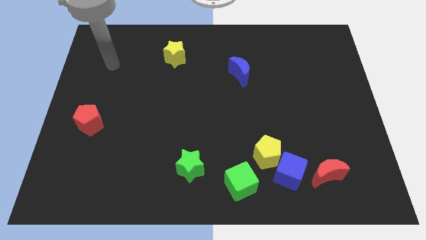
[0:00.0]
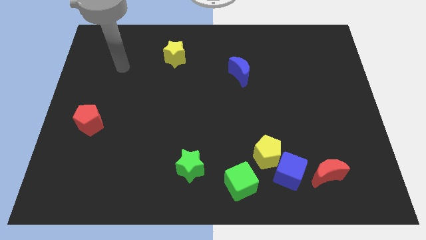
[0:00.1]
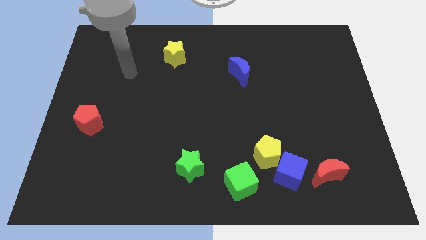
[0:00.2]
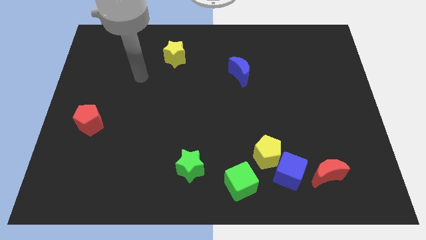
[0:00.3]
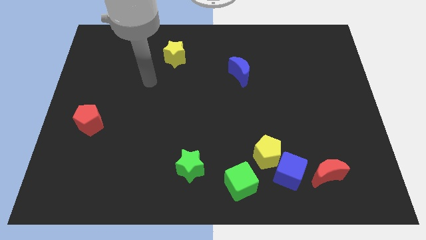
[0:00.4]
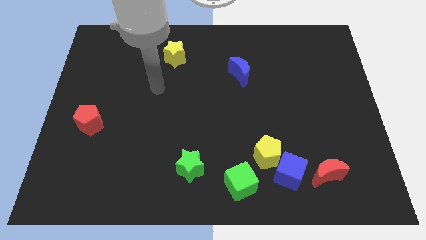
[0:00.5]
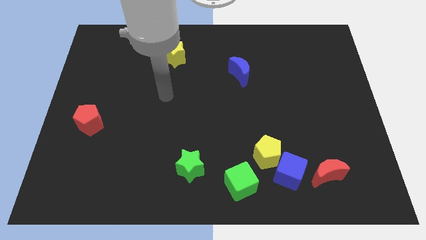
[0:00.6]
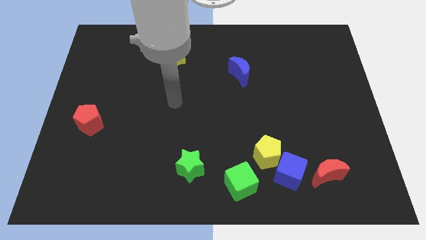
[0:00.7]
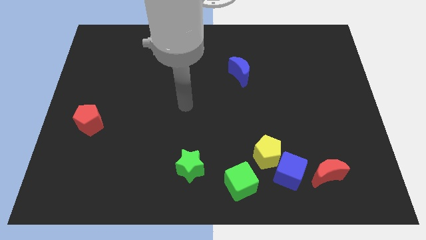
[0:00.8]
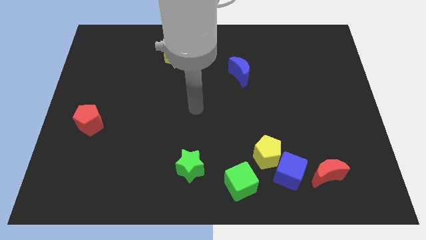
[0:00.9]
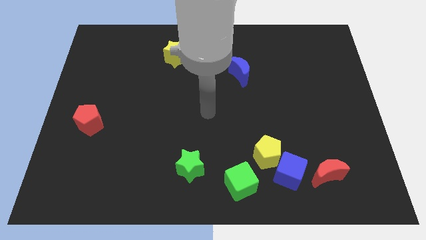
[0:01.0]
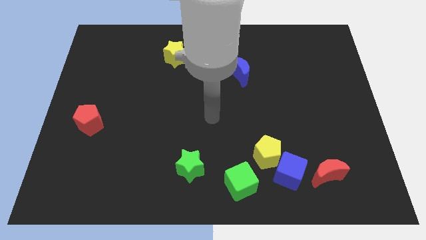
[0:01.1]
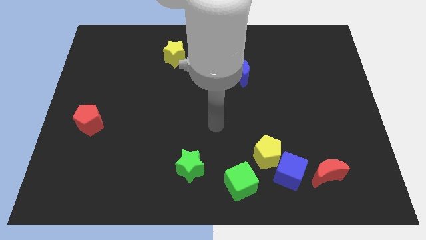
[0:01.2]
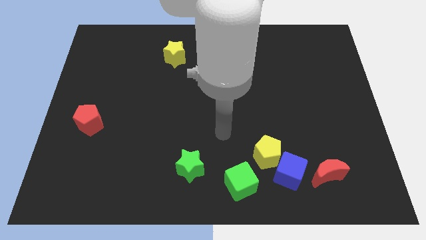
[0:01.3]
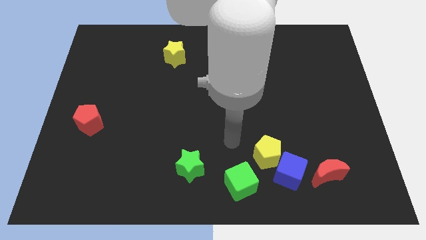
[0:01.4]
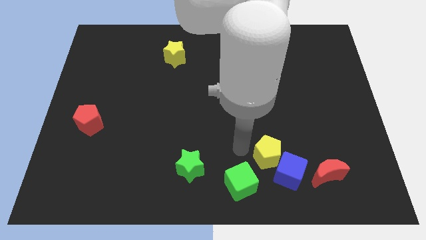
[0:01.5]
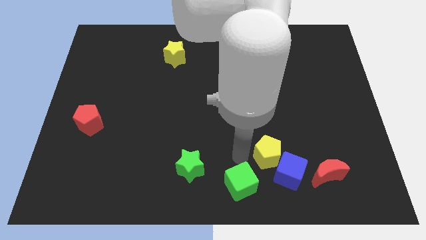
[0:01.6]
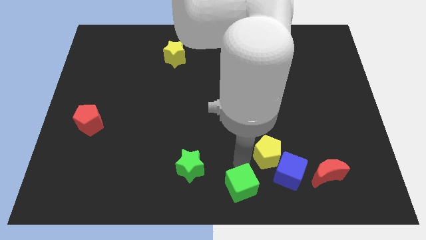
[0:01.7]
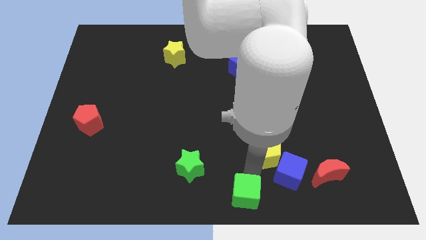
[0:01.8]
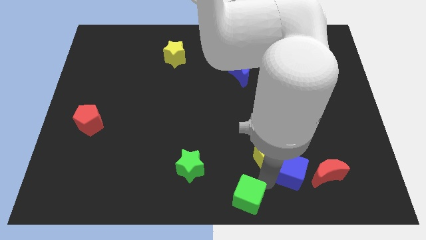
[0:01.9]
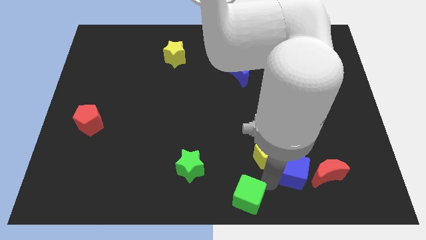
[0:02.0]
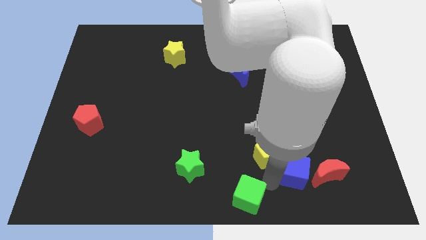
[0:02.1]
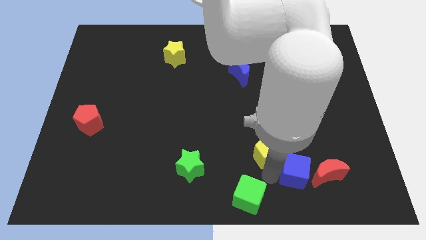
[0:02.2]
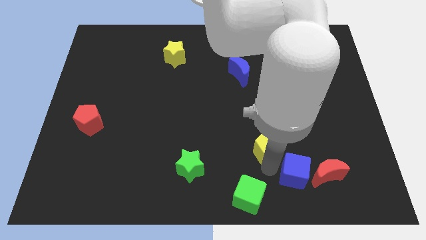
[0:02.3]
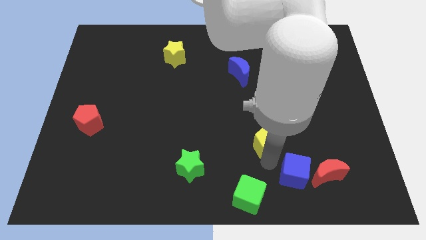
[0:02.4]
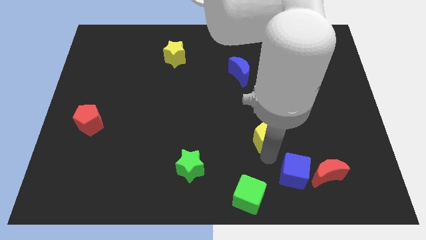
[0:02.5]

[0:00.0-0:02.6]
separate the yellow pentagon from the blue cube and green cube

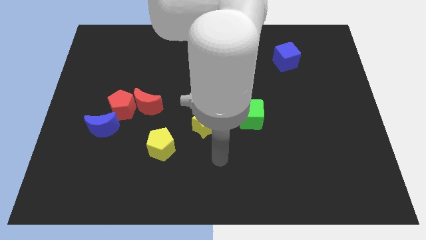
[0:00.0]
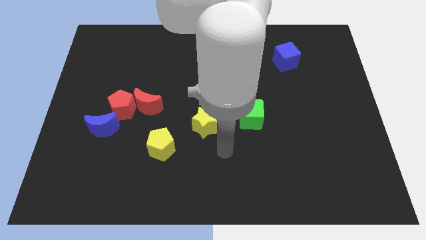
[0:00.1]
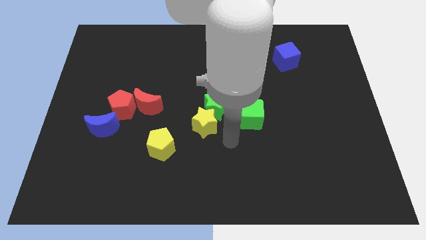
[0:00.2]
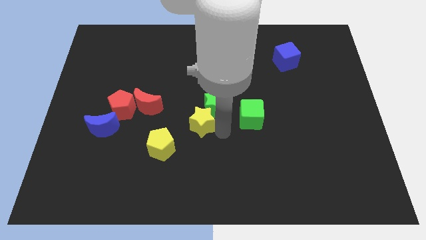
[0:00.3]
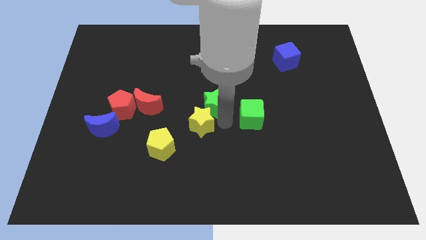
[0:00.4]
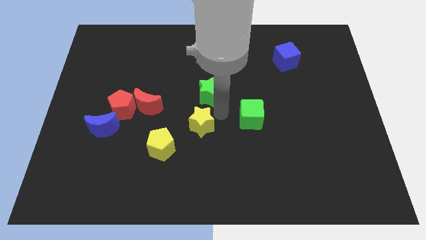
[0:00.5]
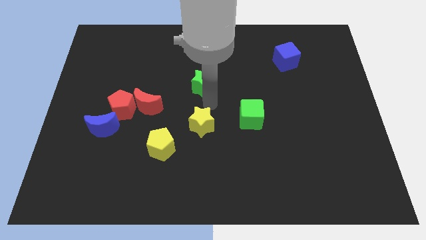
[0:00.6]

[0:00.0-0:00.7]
pull the yellow star apart from the green star

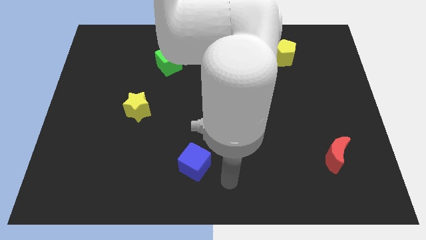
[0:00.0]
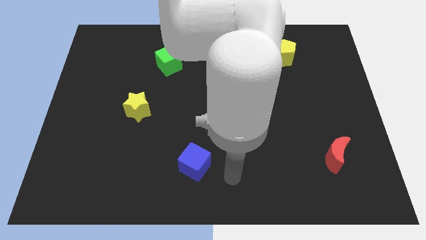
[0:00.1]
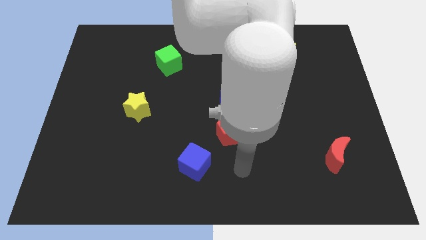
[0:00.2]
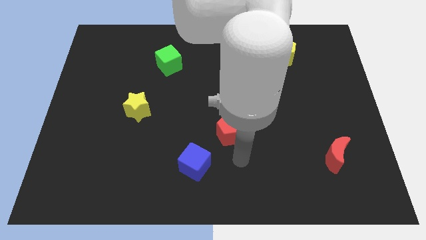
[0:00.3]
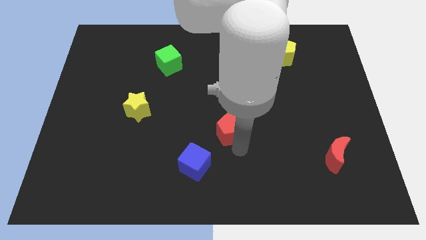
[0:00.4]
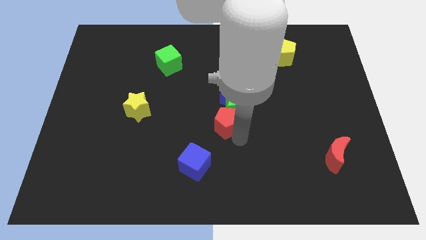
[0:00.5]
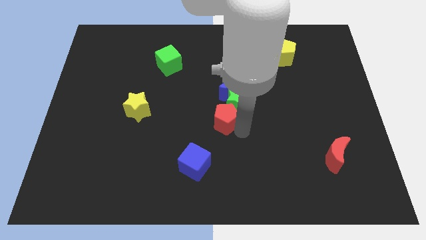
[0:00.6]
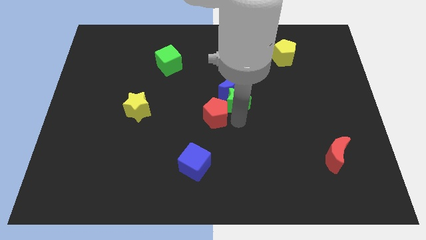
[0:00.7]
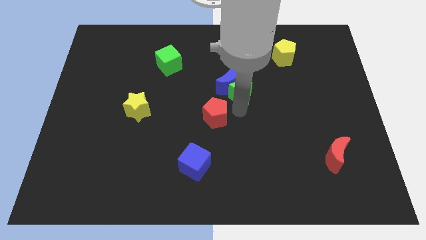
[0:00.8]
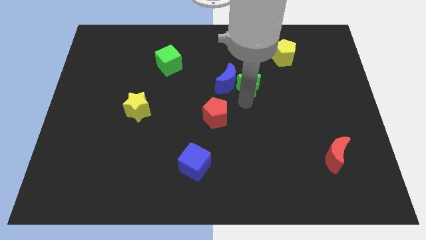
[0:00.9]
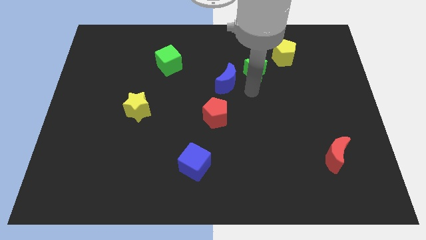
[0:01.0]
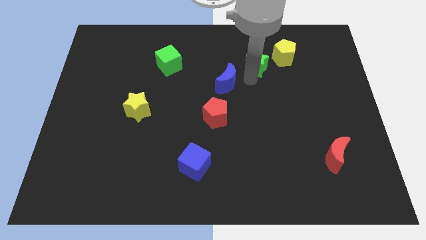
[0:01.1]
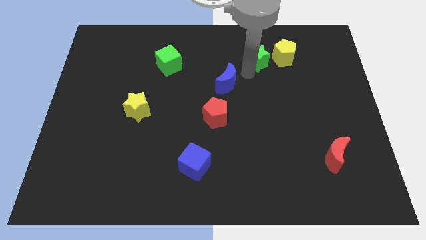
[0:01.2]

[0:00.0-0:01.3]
pull the blue moon apart from the green star

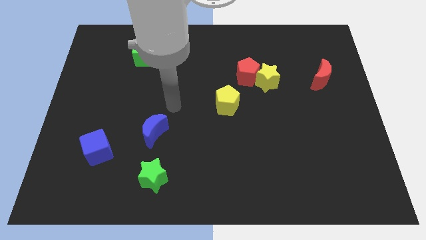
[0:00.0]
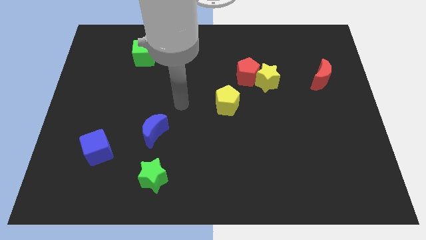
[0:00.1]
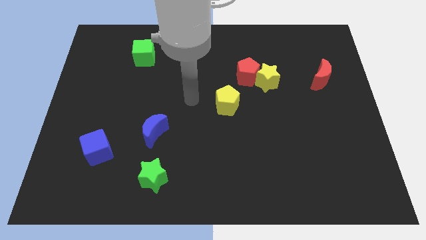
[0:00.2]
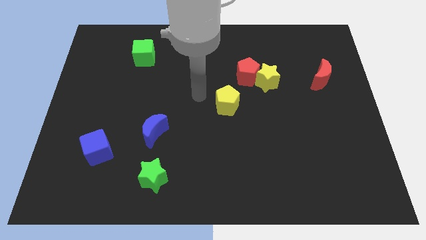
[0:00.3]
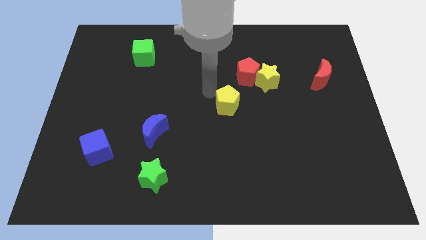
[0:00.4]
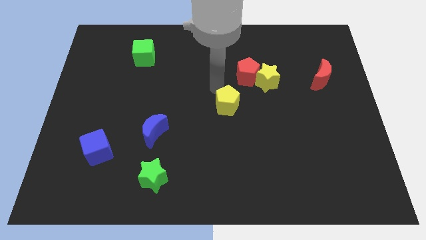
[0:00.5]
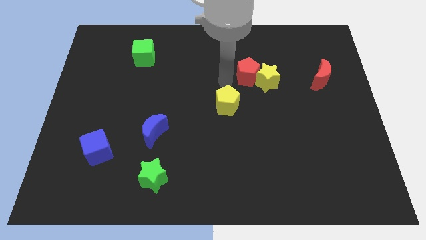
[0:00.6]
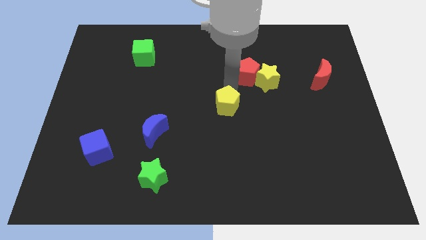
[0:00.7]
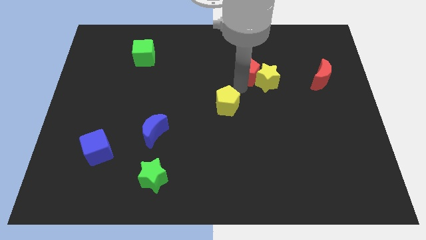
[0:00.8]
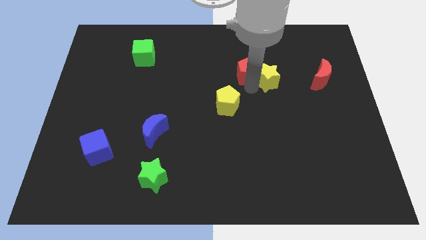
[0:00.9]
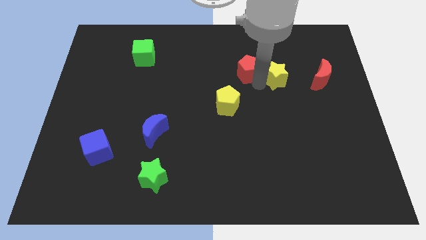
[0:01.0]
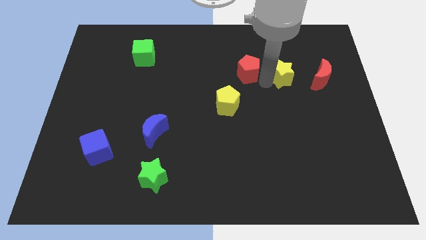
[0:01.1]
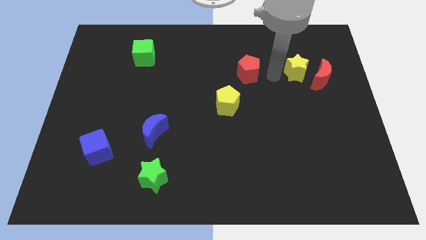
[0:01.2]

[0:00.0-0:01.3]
move the red pentagon away from the yellow star

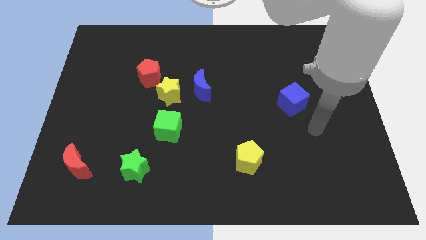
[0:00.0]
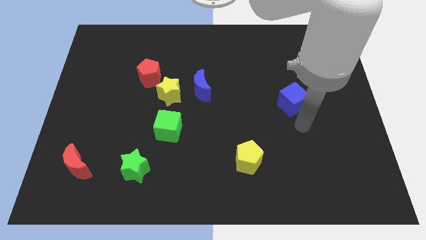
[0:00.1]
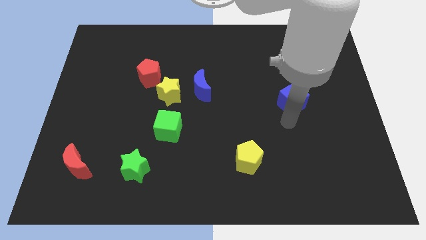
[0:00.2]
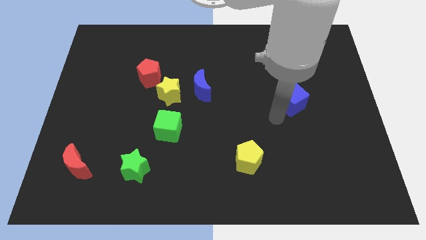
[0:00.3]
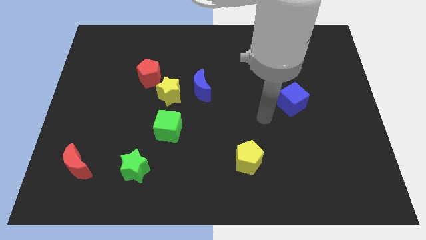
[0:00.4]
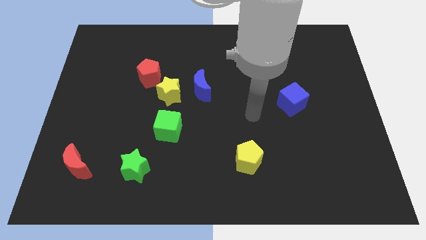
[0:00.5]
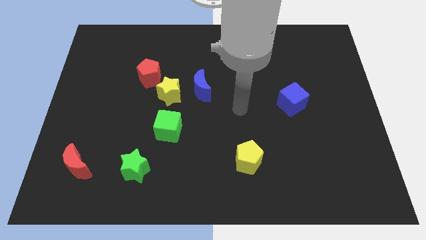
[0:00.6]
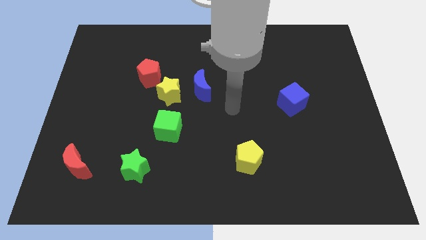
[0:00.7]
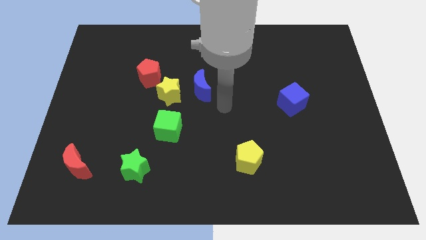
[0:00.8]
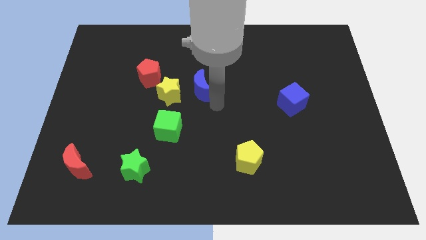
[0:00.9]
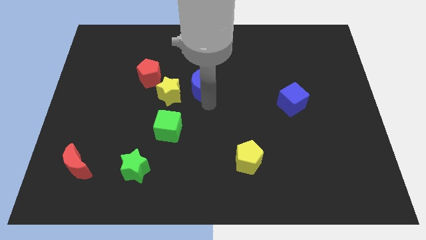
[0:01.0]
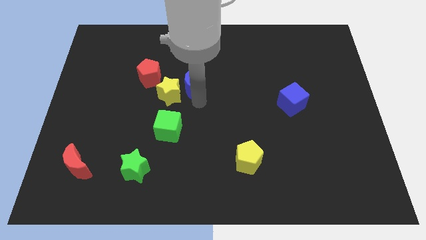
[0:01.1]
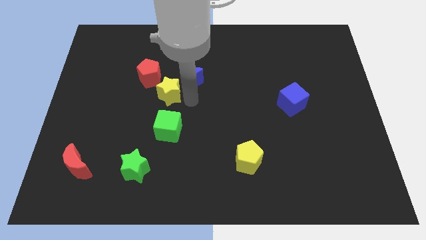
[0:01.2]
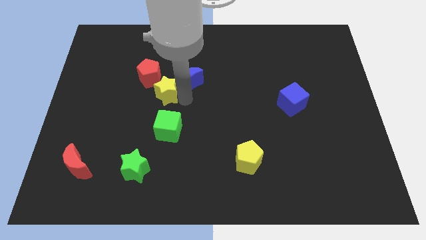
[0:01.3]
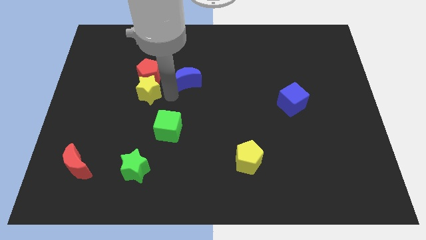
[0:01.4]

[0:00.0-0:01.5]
pull the blue moon apart from the yellow star

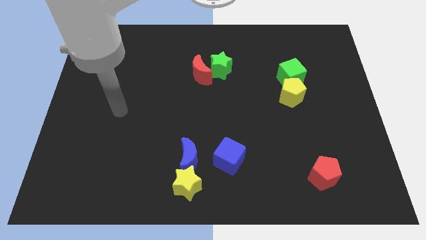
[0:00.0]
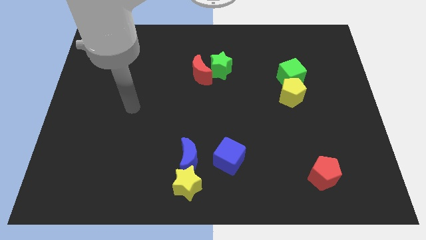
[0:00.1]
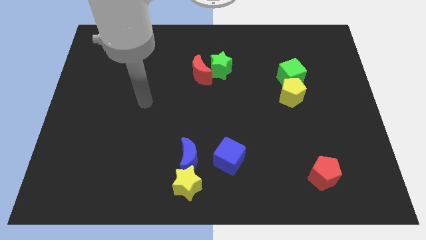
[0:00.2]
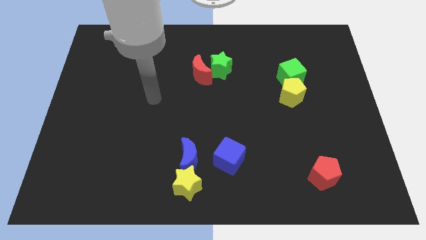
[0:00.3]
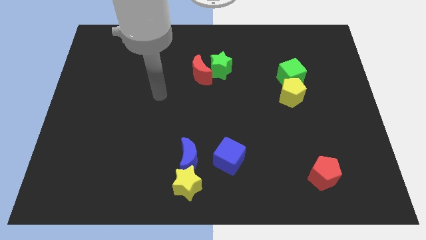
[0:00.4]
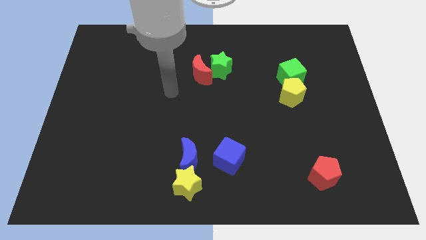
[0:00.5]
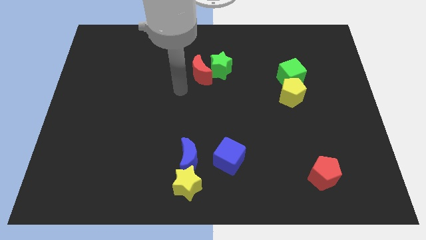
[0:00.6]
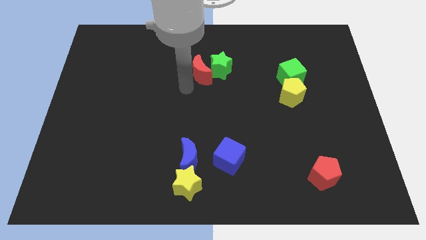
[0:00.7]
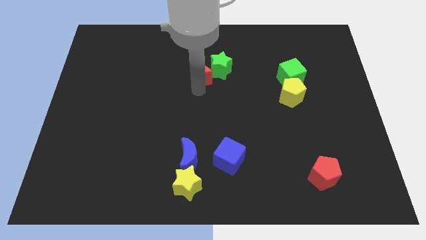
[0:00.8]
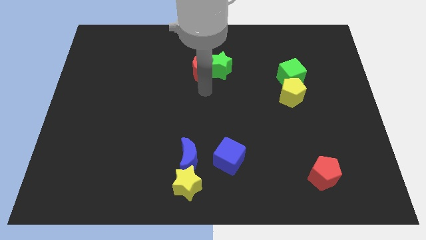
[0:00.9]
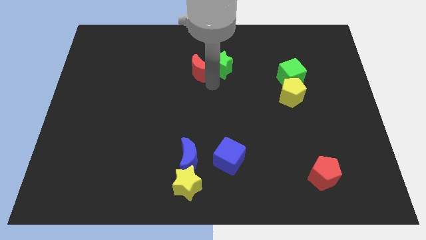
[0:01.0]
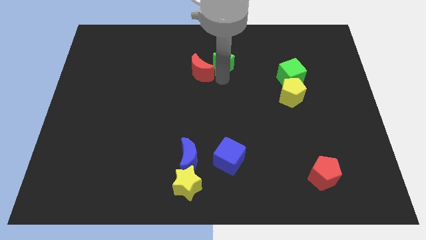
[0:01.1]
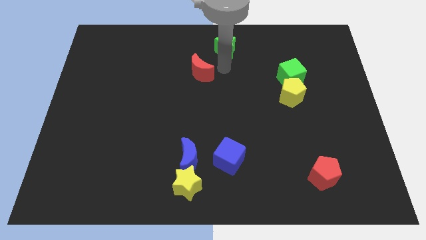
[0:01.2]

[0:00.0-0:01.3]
move the red moon away from the green star

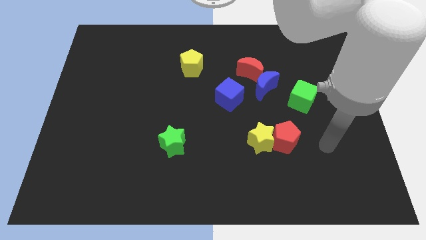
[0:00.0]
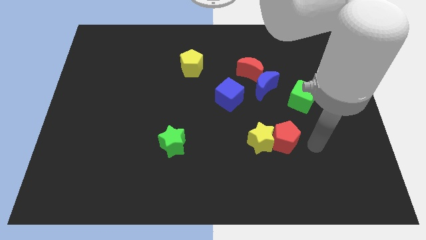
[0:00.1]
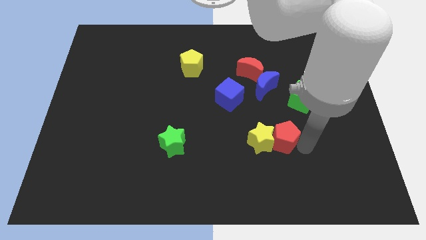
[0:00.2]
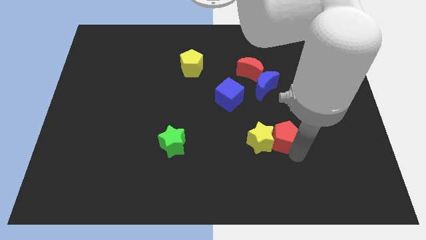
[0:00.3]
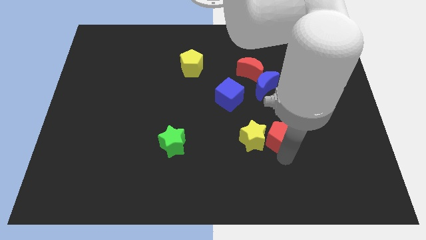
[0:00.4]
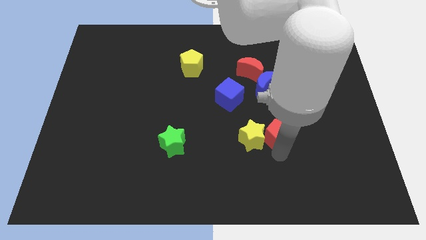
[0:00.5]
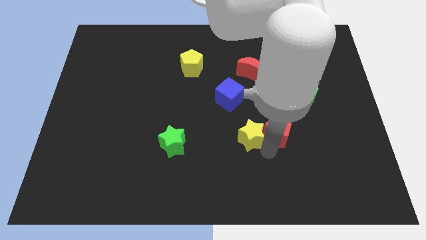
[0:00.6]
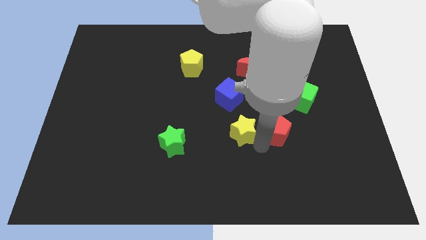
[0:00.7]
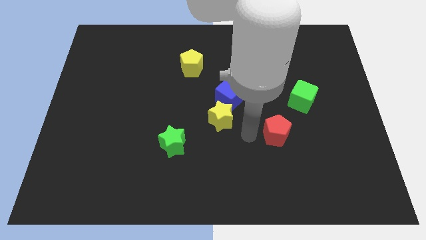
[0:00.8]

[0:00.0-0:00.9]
pull the red pentagon apart from the yellow star
